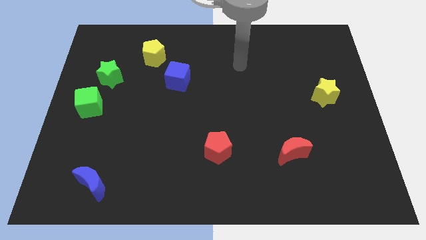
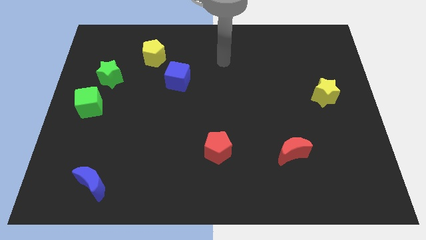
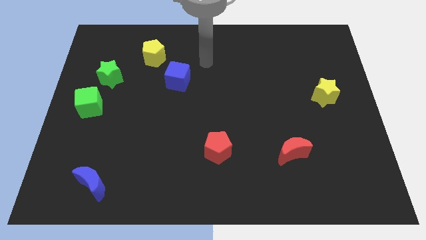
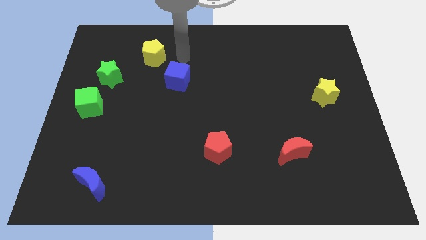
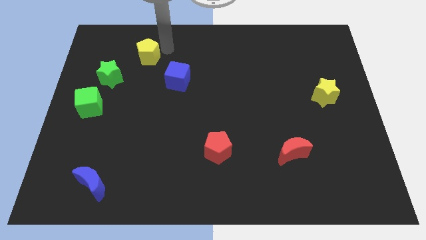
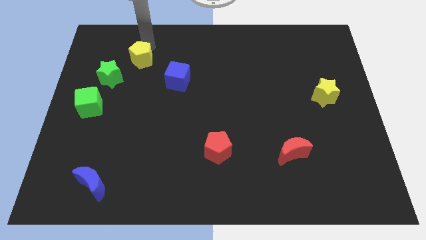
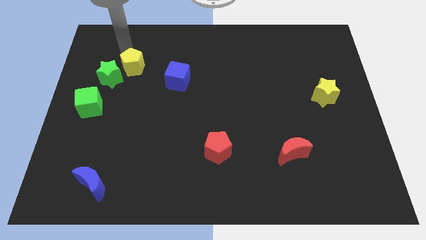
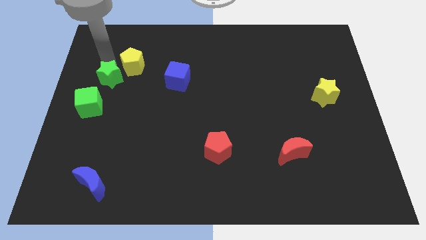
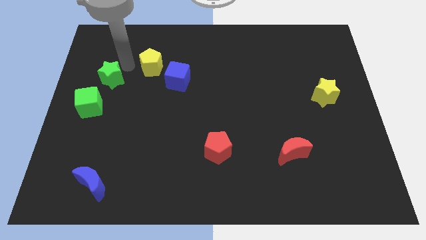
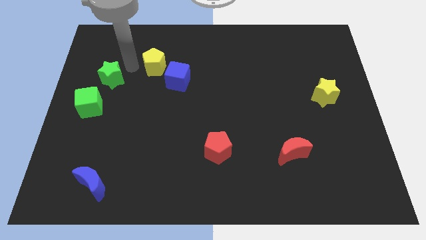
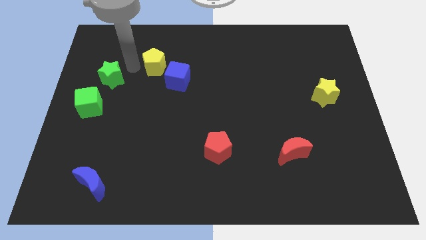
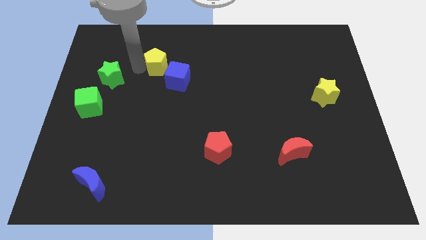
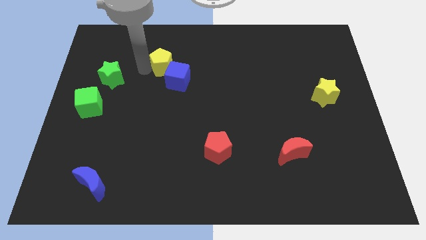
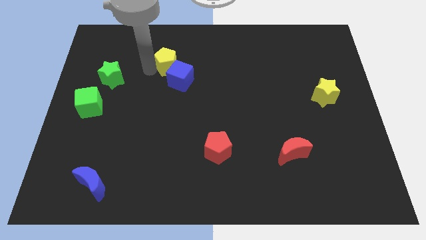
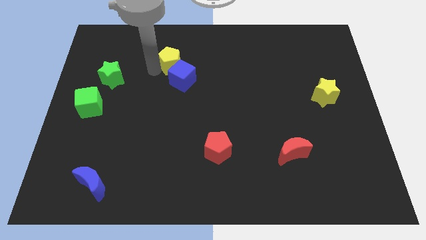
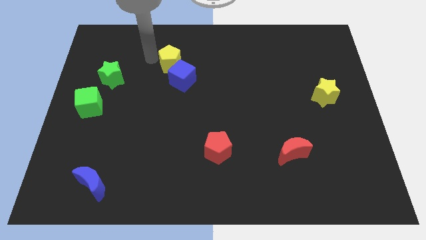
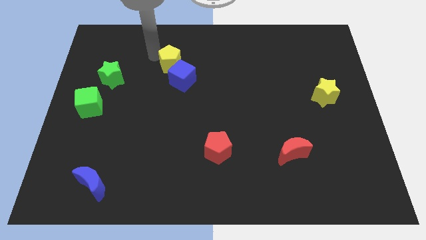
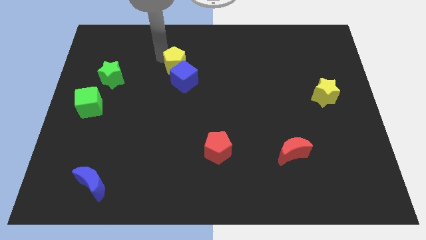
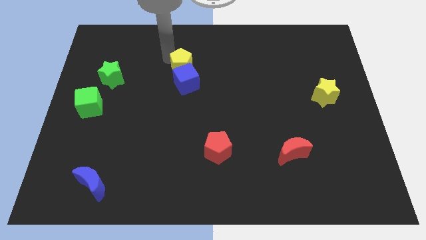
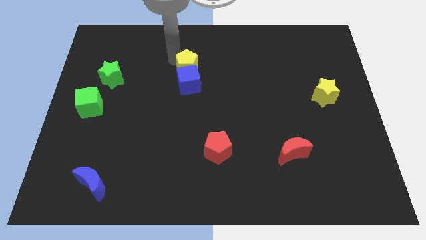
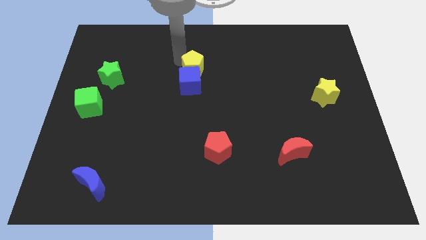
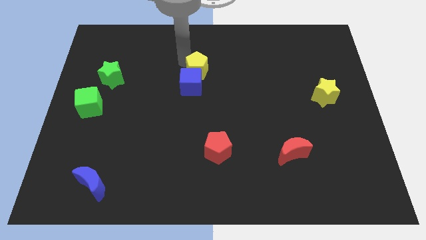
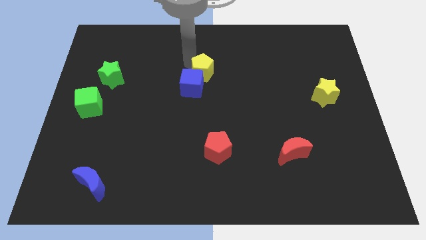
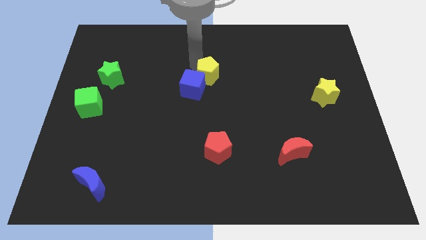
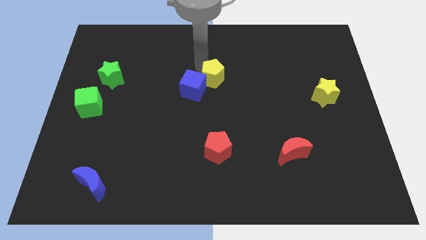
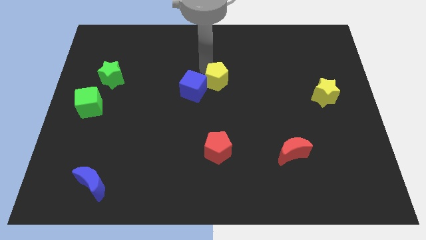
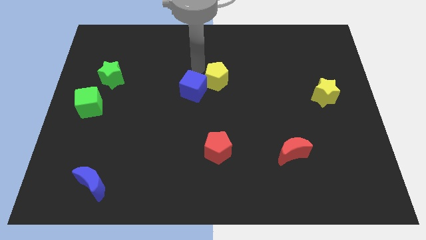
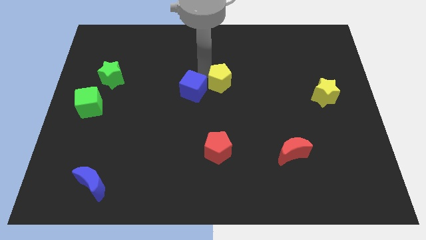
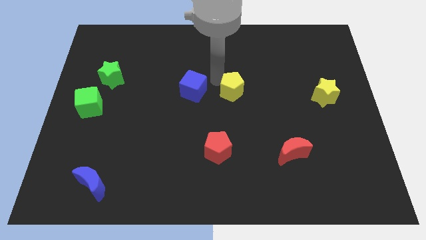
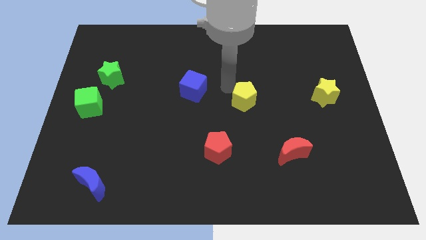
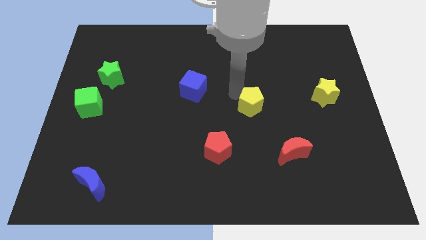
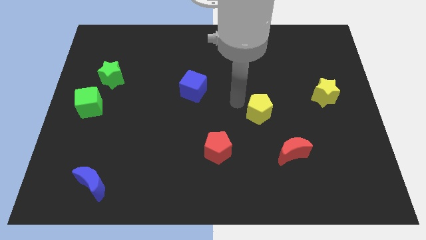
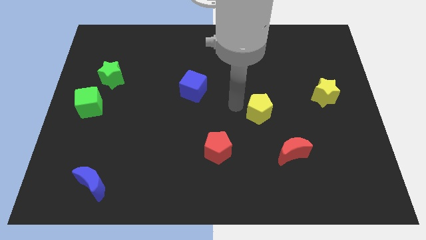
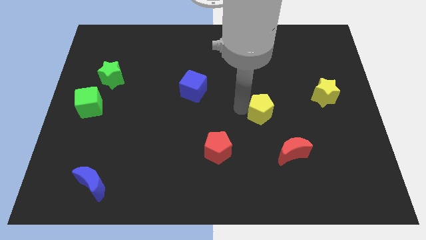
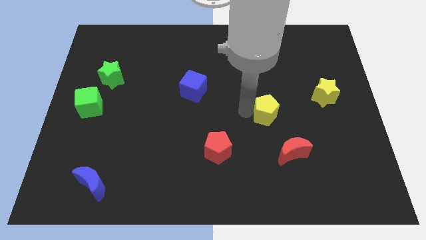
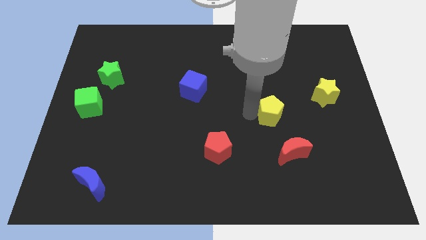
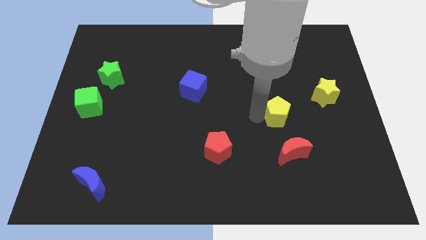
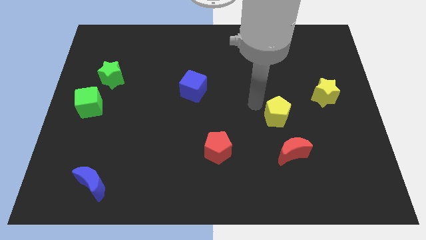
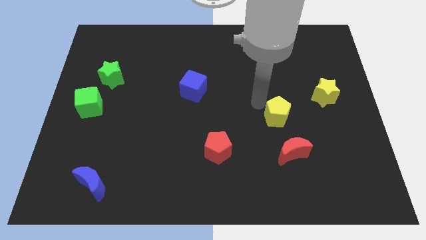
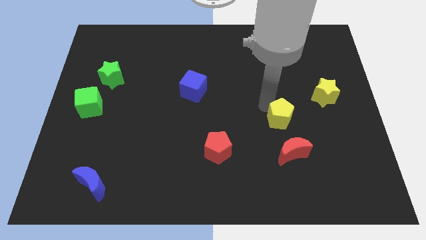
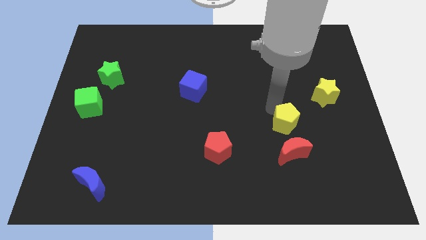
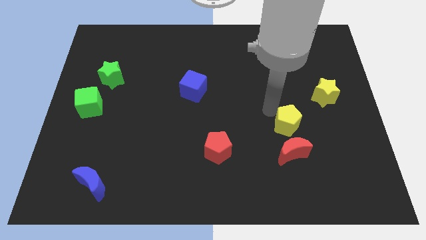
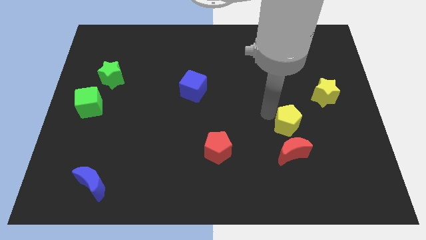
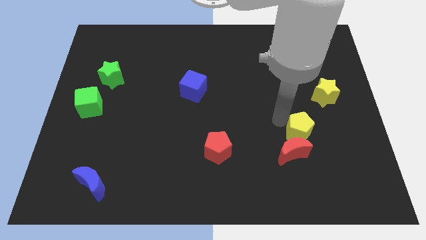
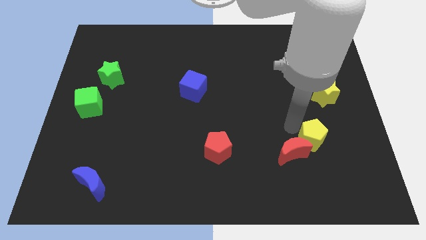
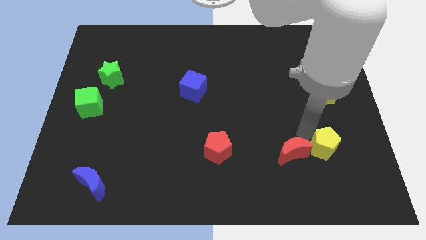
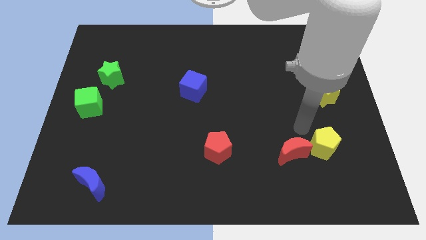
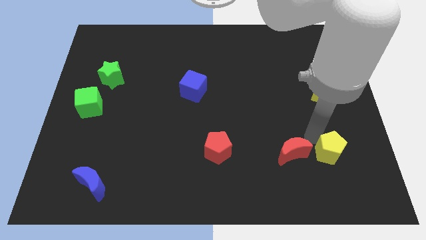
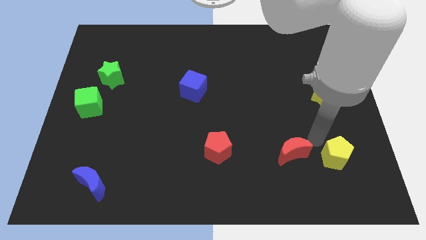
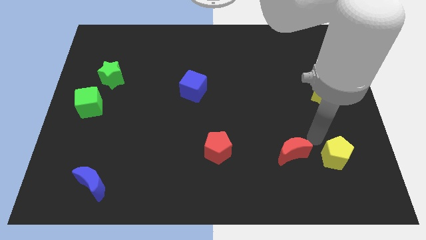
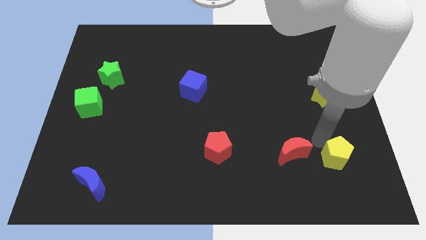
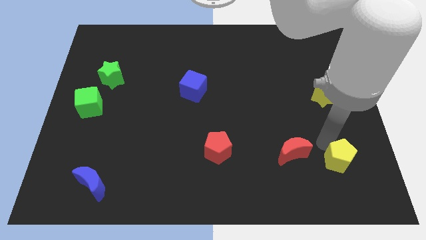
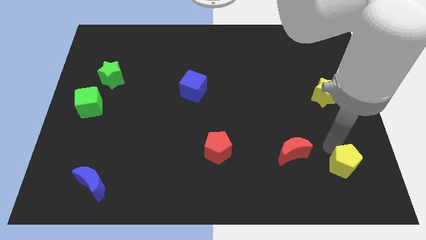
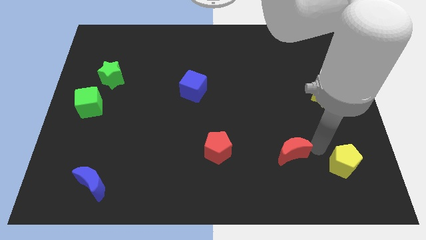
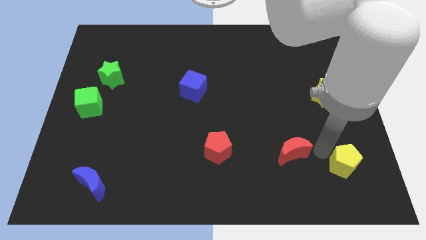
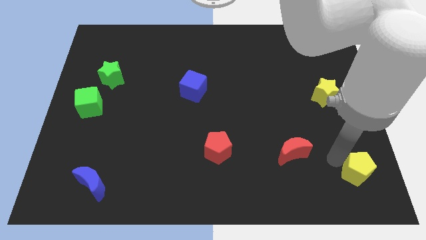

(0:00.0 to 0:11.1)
slide the yellow pentagon to the bottom right corner

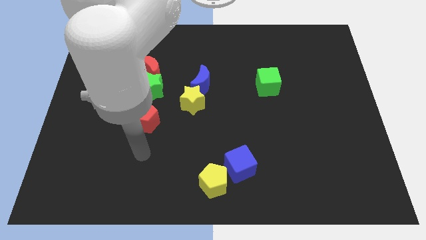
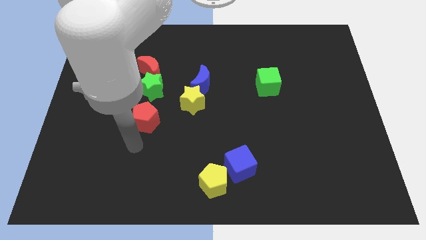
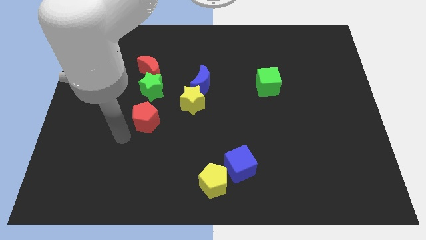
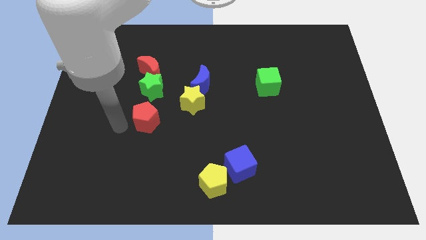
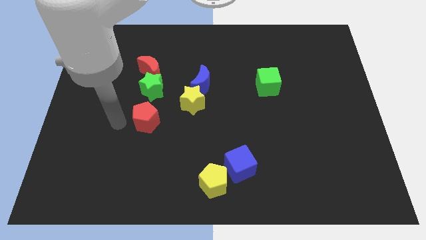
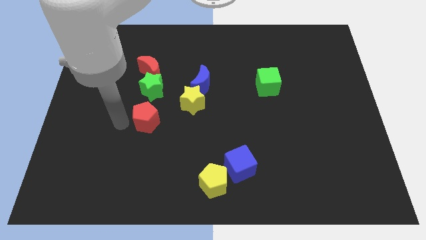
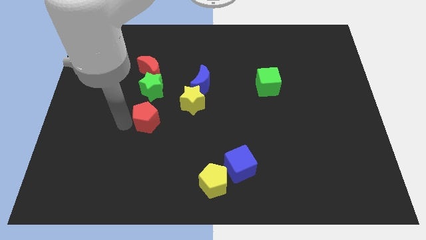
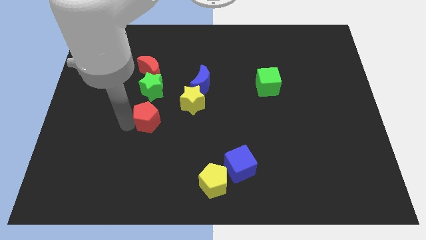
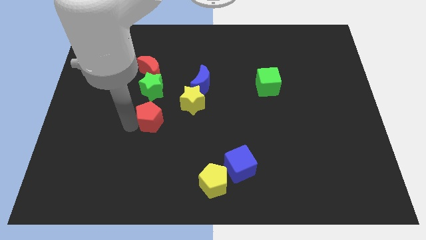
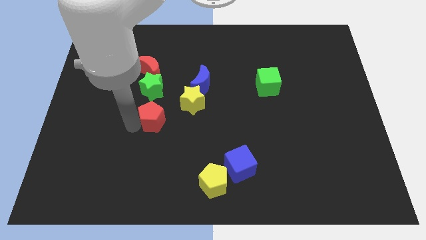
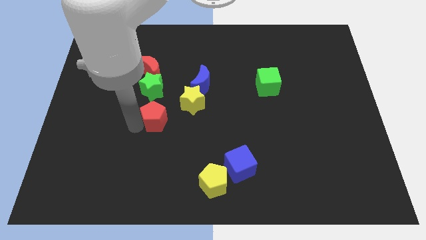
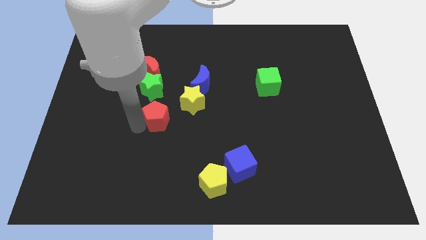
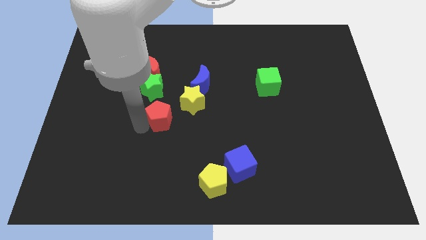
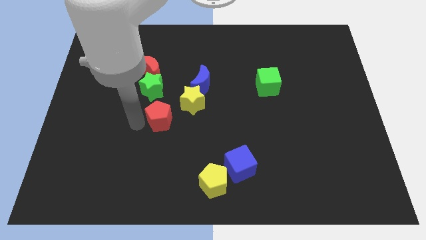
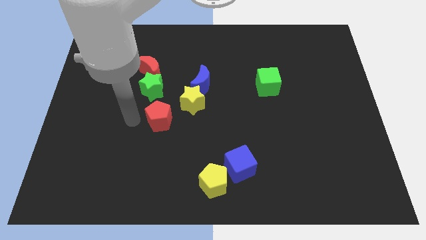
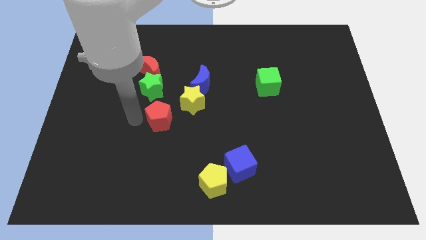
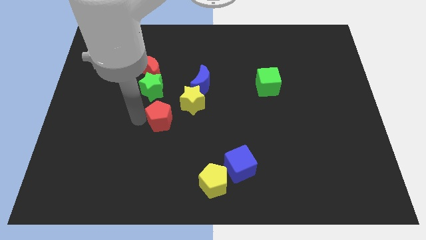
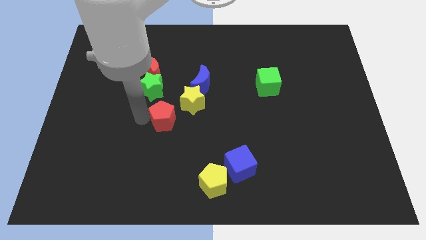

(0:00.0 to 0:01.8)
push the red pentagon to the center
